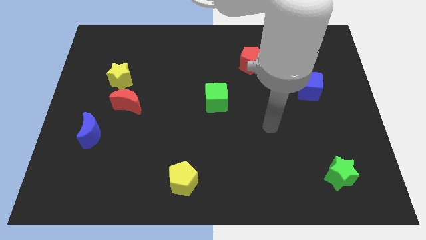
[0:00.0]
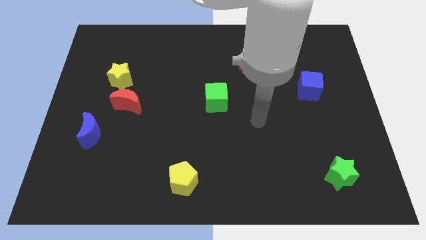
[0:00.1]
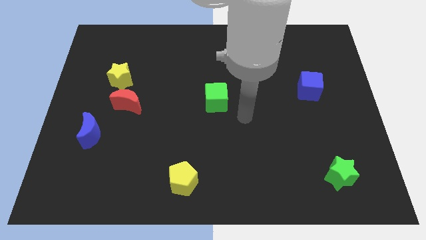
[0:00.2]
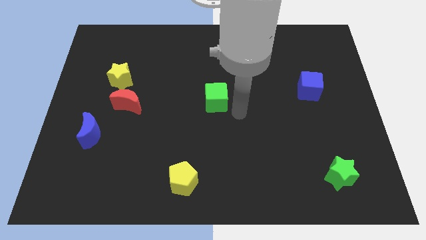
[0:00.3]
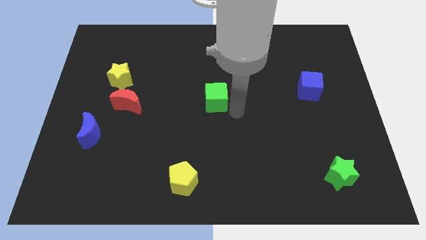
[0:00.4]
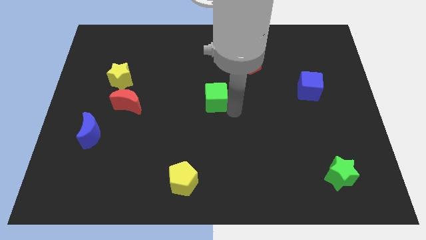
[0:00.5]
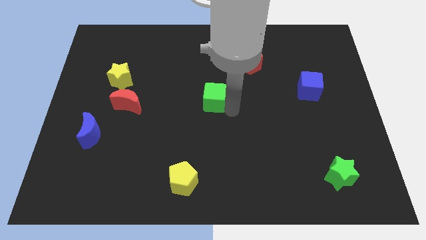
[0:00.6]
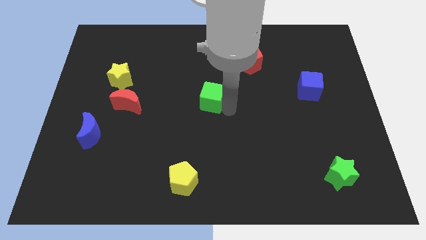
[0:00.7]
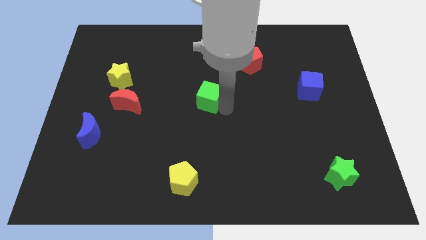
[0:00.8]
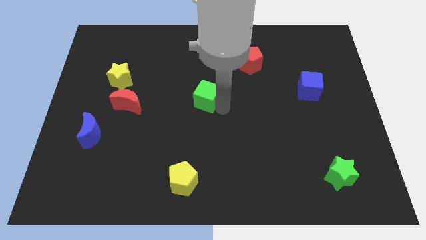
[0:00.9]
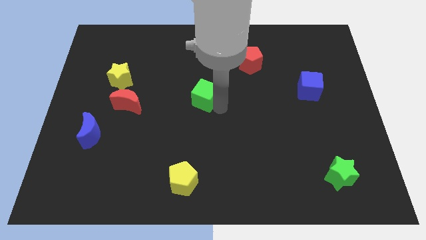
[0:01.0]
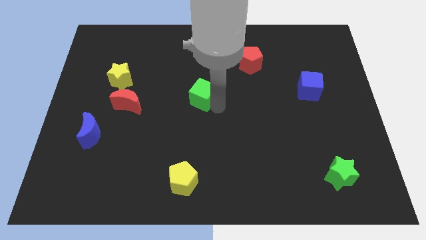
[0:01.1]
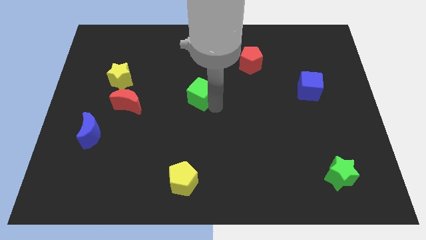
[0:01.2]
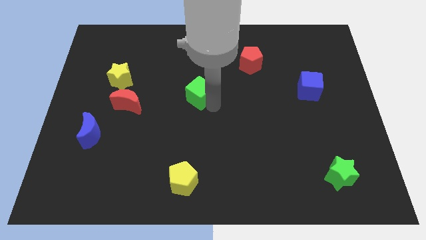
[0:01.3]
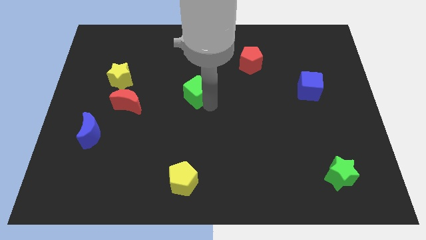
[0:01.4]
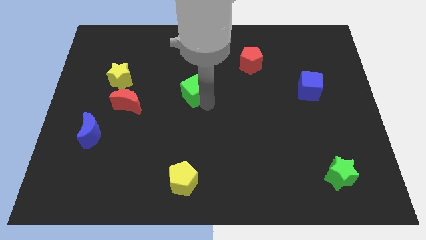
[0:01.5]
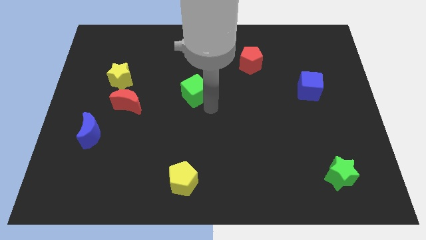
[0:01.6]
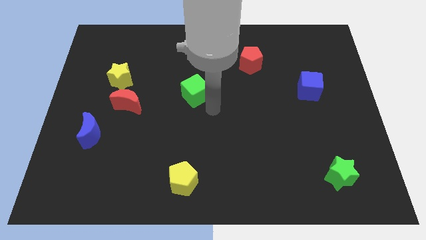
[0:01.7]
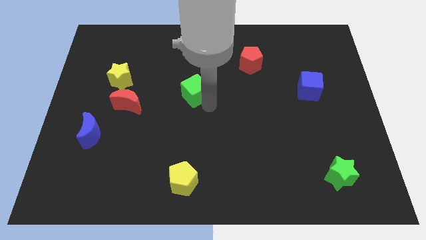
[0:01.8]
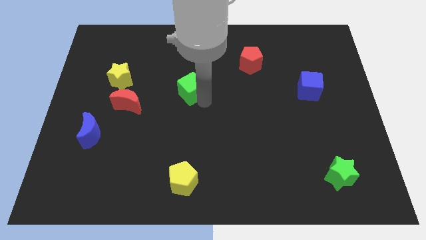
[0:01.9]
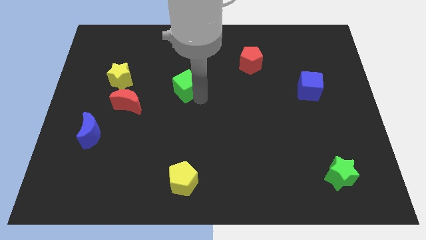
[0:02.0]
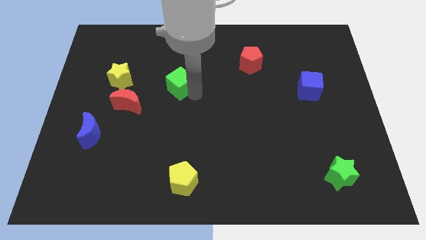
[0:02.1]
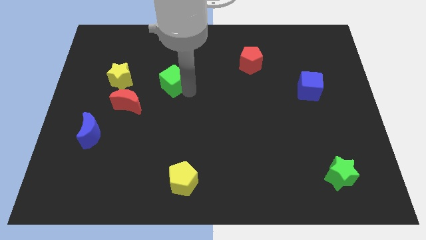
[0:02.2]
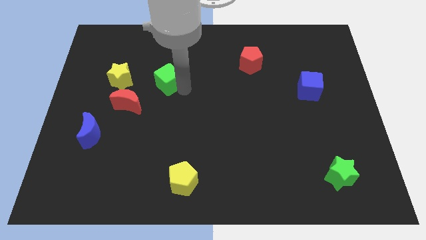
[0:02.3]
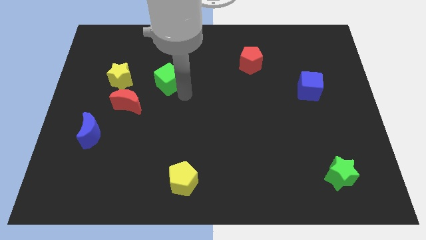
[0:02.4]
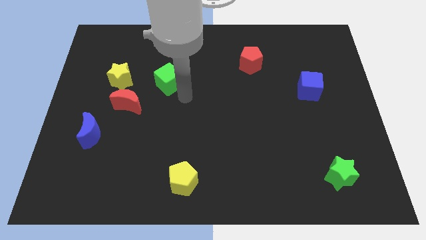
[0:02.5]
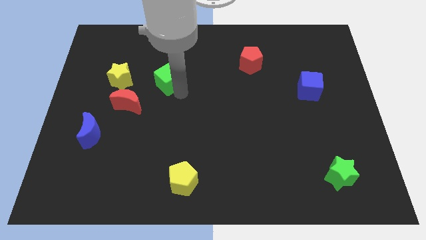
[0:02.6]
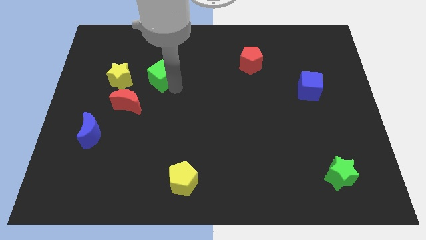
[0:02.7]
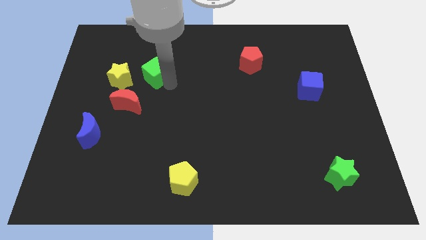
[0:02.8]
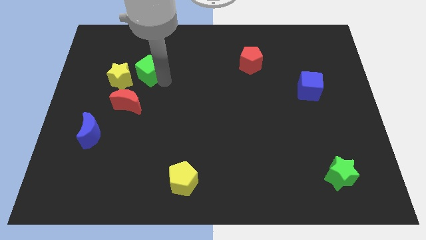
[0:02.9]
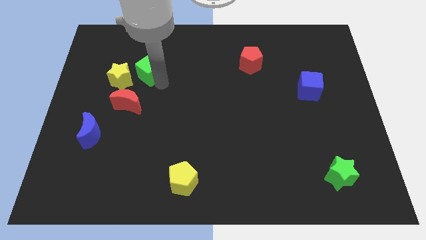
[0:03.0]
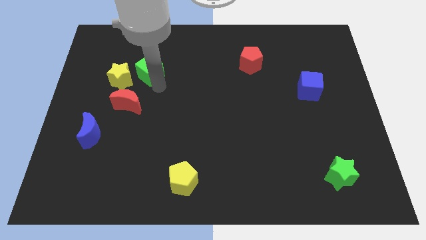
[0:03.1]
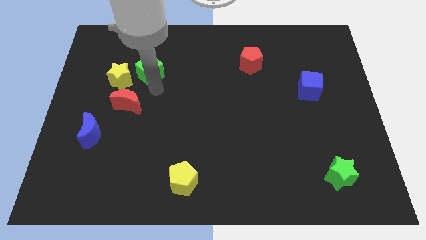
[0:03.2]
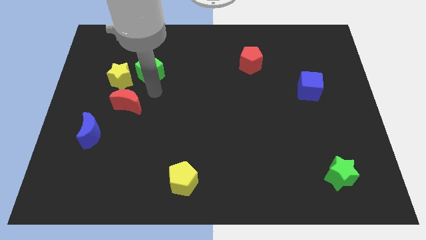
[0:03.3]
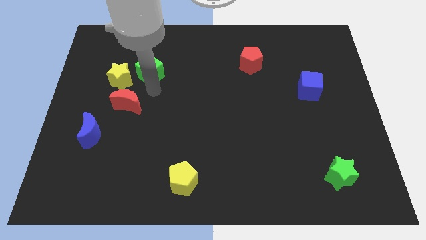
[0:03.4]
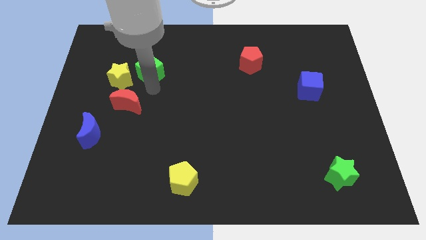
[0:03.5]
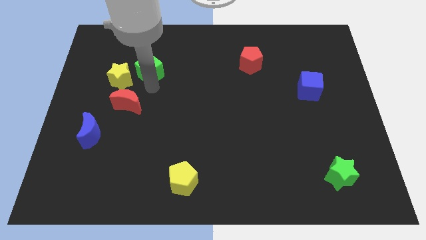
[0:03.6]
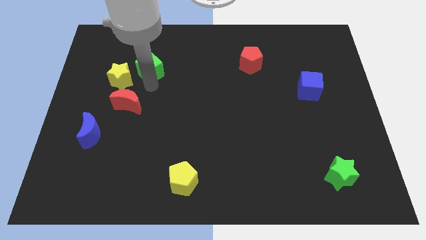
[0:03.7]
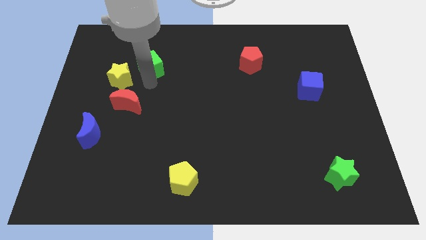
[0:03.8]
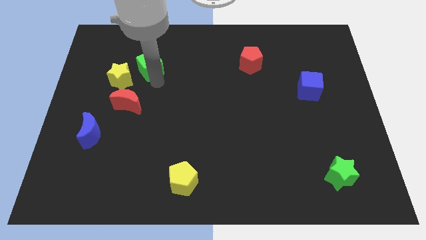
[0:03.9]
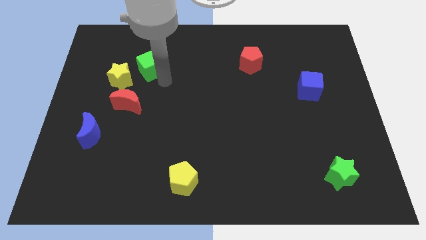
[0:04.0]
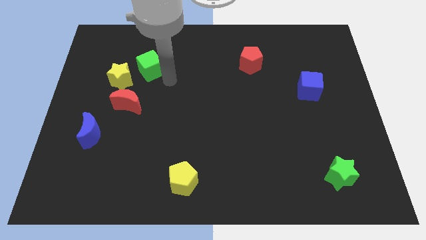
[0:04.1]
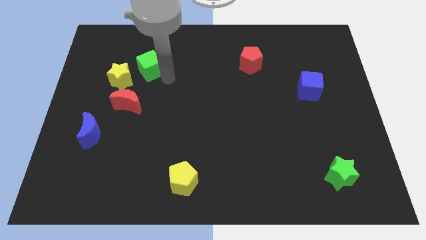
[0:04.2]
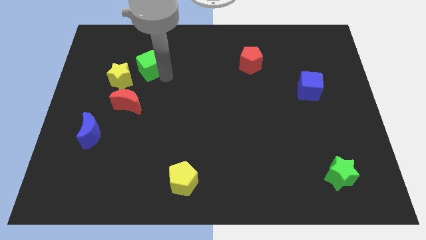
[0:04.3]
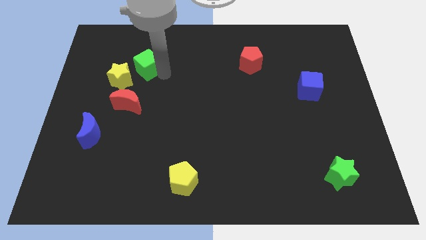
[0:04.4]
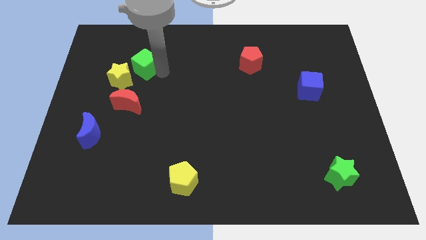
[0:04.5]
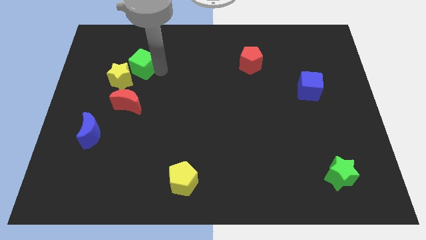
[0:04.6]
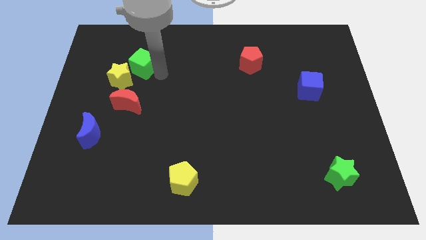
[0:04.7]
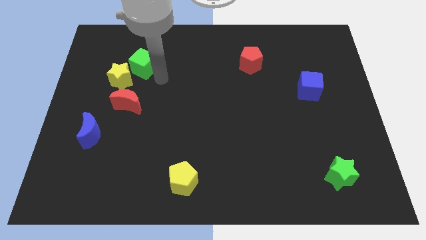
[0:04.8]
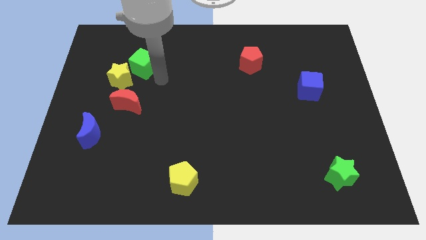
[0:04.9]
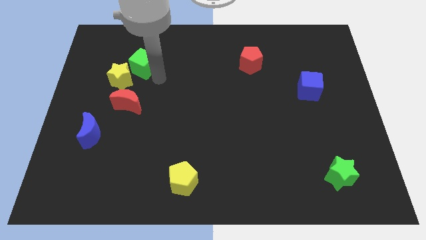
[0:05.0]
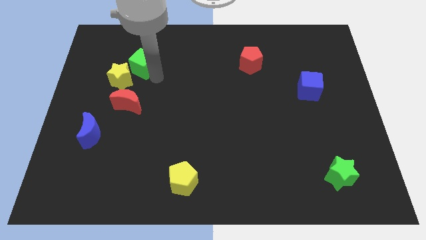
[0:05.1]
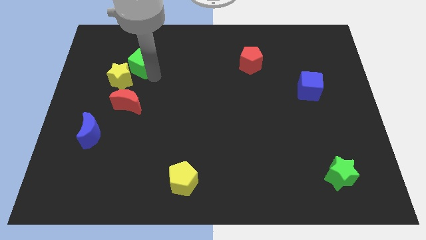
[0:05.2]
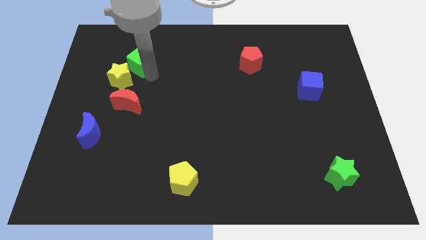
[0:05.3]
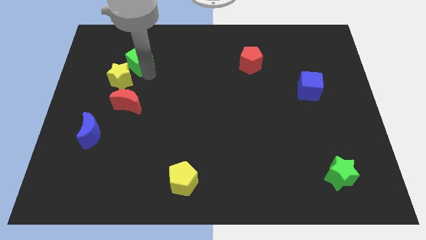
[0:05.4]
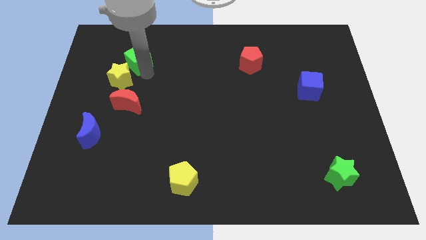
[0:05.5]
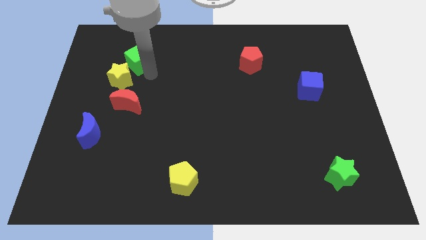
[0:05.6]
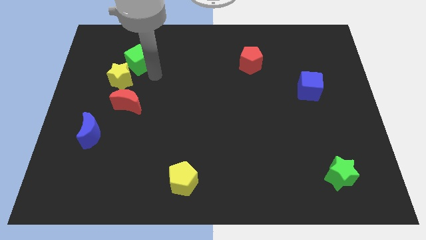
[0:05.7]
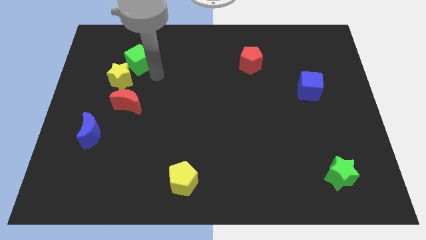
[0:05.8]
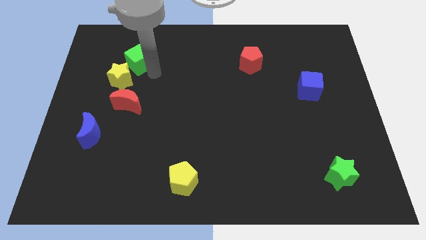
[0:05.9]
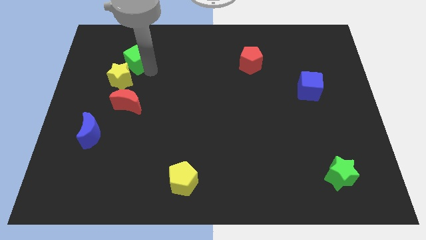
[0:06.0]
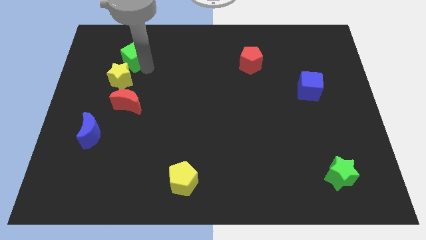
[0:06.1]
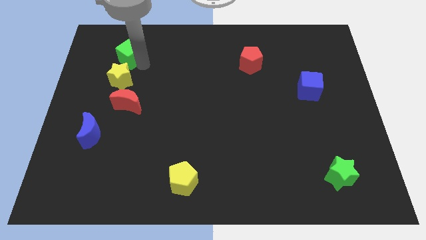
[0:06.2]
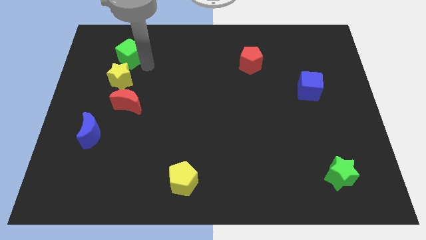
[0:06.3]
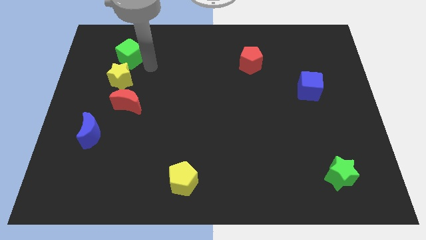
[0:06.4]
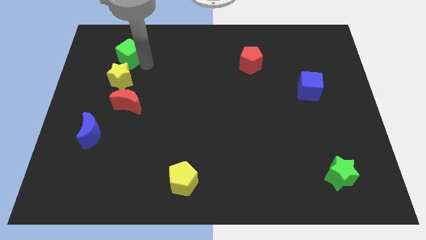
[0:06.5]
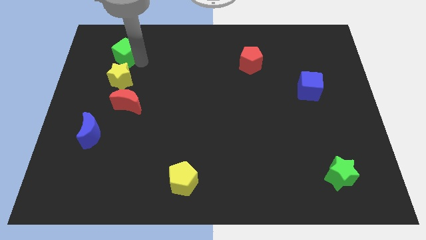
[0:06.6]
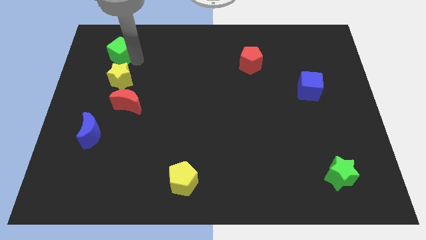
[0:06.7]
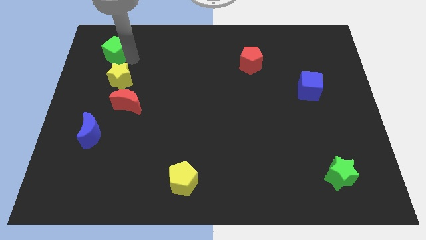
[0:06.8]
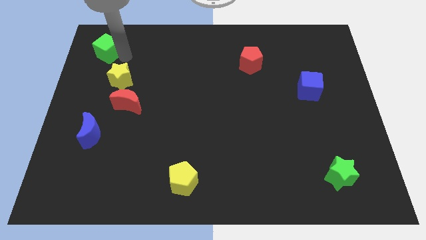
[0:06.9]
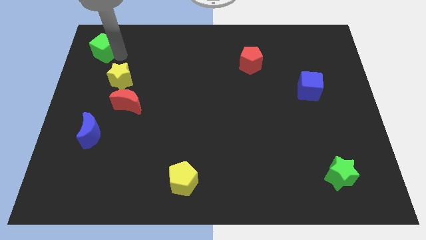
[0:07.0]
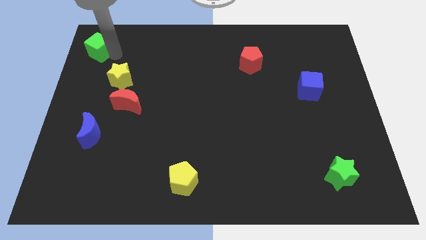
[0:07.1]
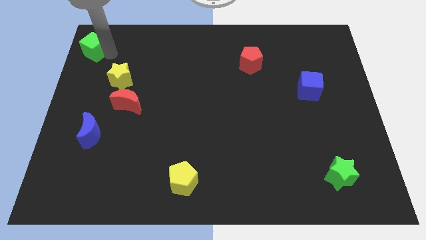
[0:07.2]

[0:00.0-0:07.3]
slide the green cube to the top left
